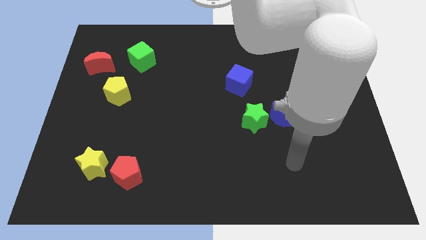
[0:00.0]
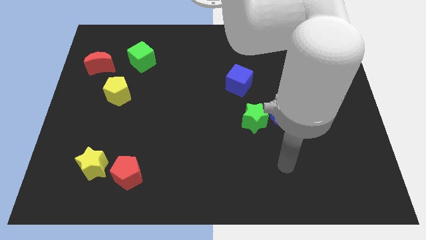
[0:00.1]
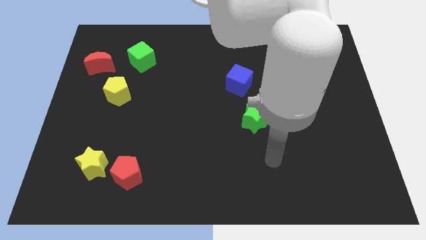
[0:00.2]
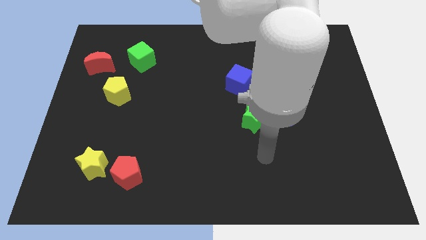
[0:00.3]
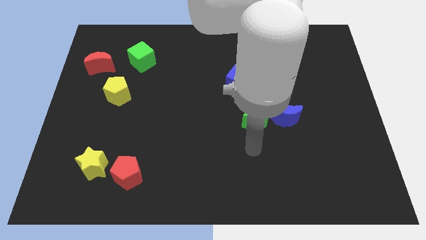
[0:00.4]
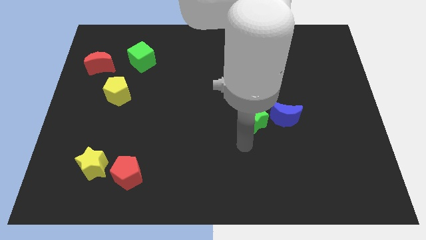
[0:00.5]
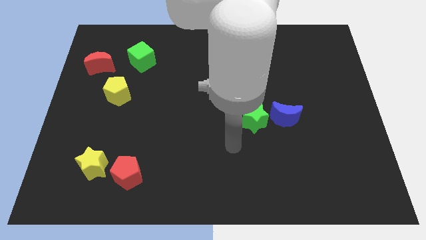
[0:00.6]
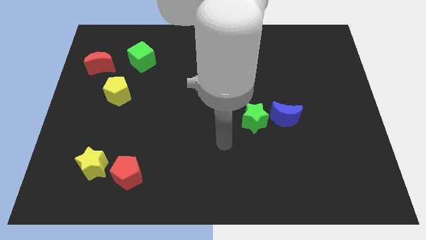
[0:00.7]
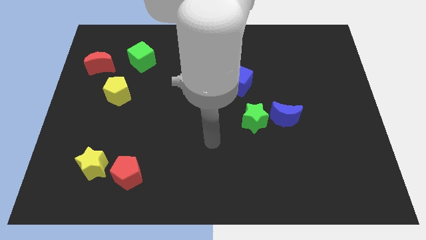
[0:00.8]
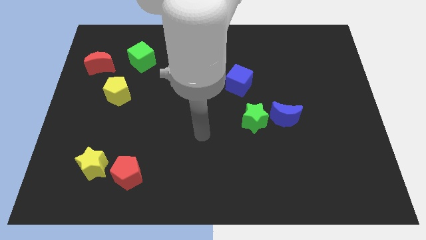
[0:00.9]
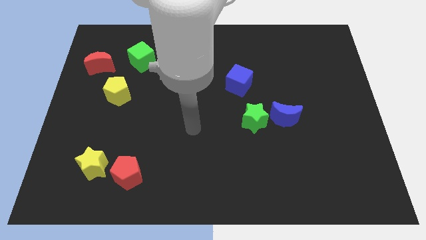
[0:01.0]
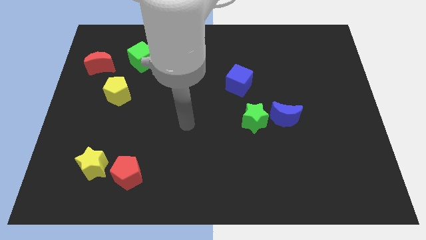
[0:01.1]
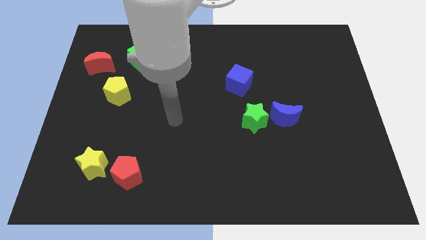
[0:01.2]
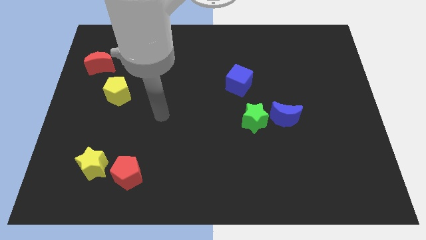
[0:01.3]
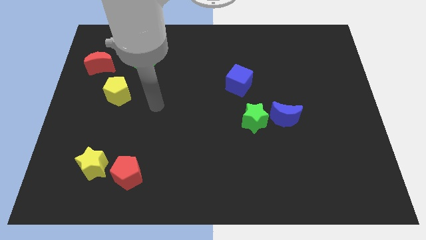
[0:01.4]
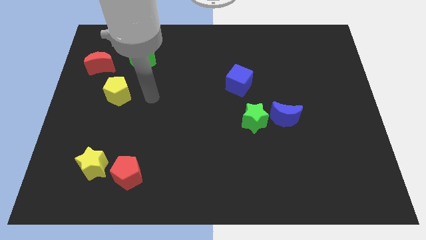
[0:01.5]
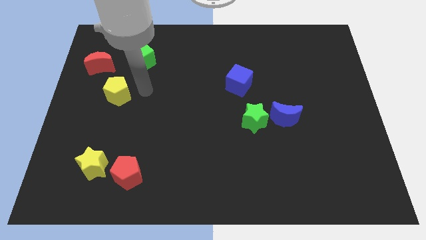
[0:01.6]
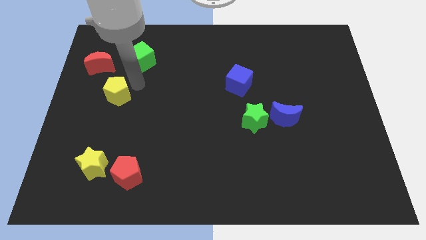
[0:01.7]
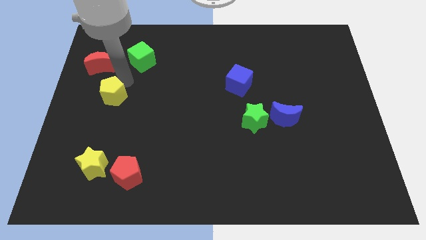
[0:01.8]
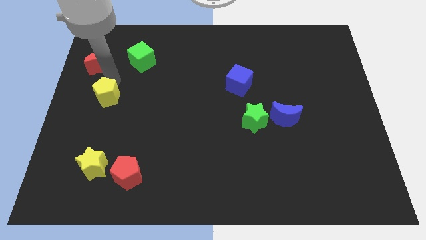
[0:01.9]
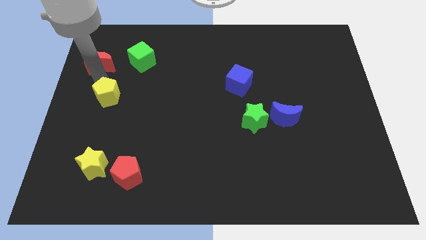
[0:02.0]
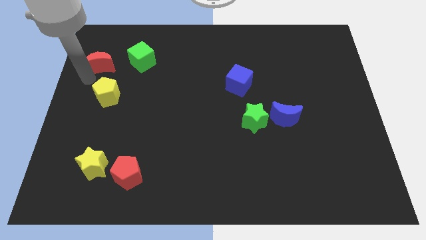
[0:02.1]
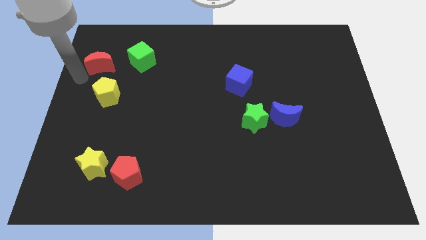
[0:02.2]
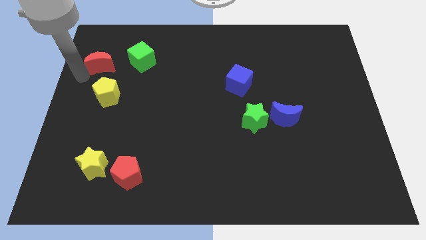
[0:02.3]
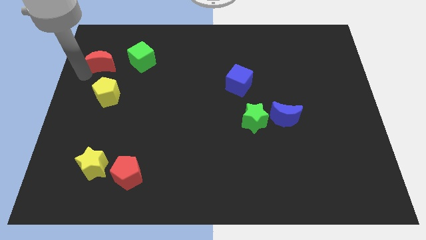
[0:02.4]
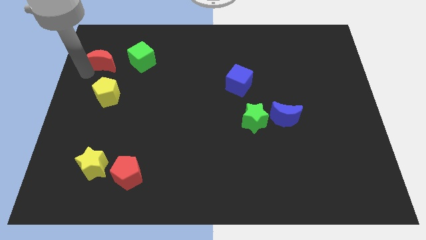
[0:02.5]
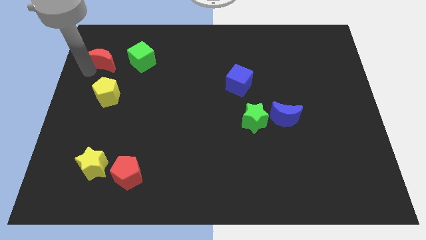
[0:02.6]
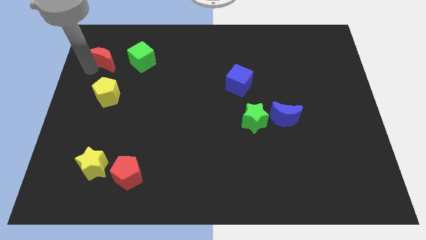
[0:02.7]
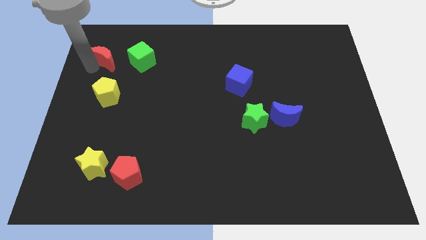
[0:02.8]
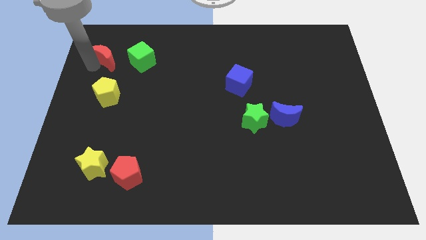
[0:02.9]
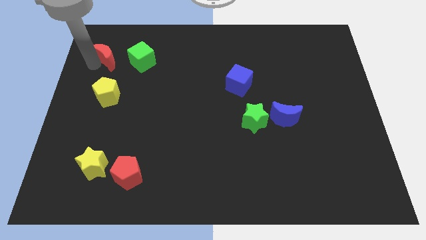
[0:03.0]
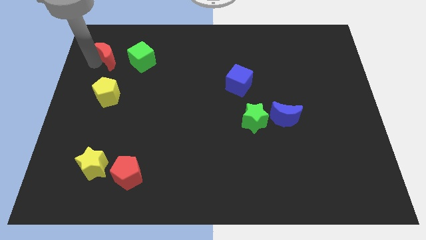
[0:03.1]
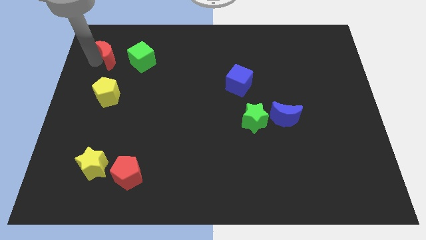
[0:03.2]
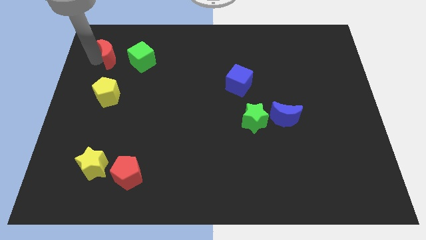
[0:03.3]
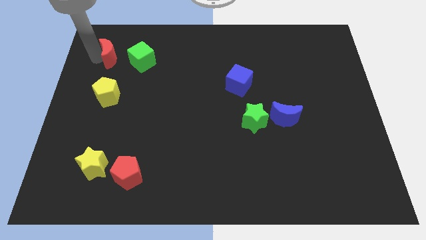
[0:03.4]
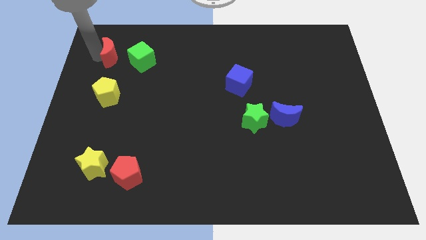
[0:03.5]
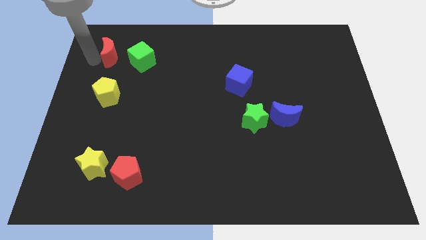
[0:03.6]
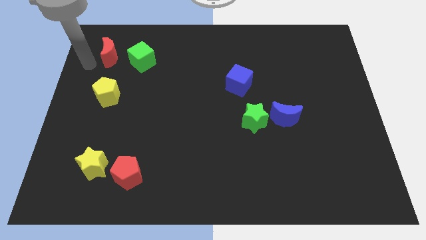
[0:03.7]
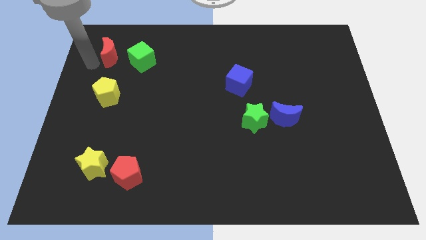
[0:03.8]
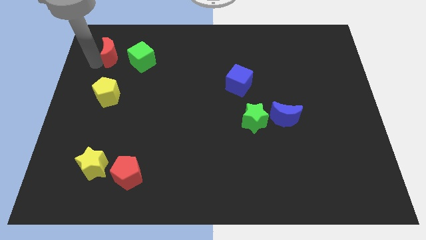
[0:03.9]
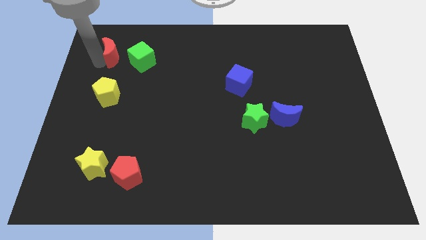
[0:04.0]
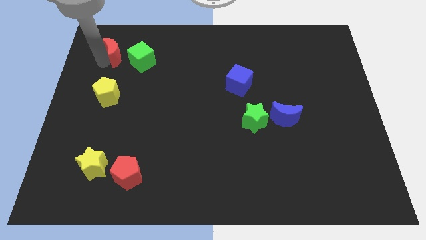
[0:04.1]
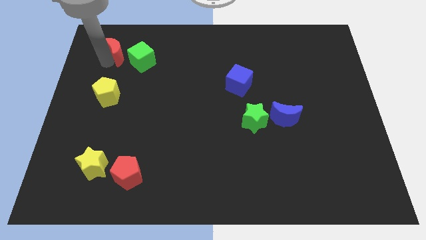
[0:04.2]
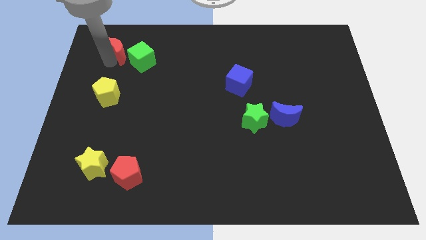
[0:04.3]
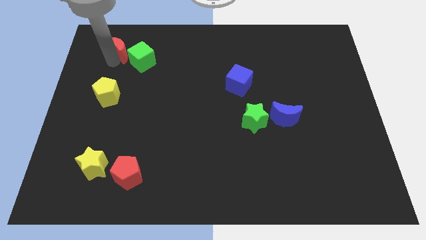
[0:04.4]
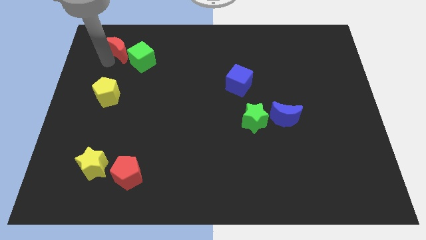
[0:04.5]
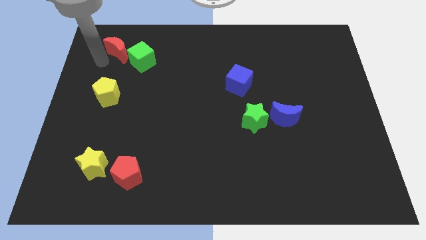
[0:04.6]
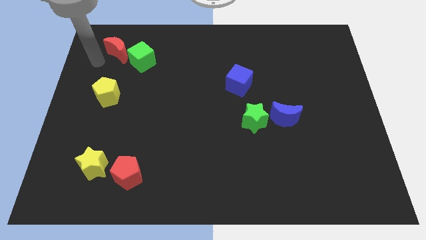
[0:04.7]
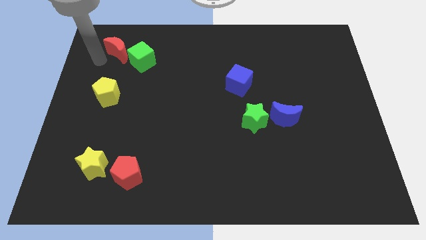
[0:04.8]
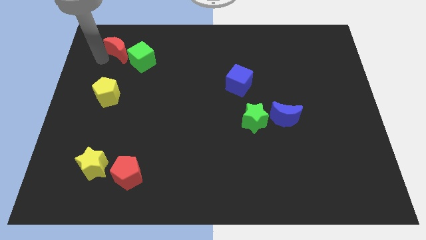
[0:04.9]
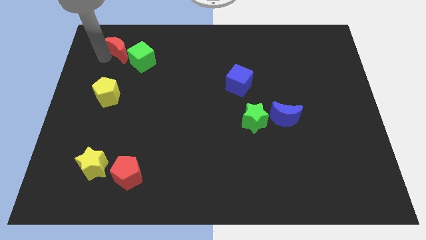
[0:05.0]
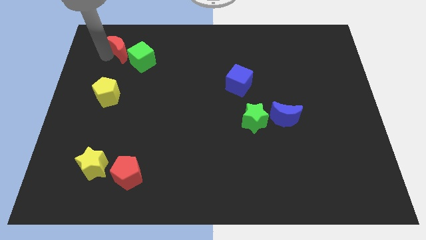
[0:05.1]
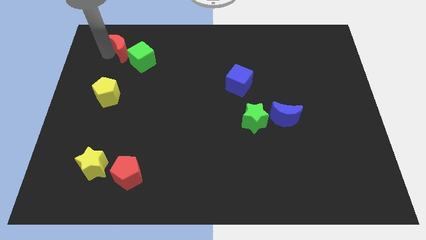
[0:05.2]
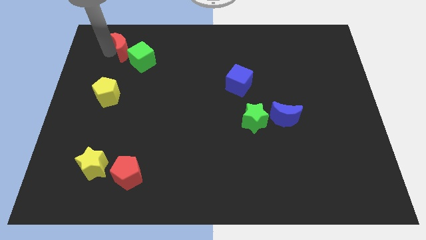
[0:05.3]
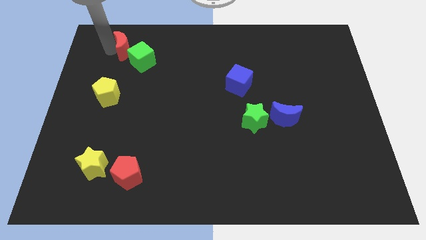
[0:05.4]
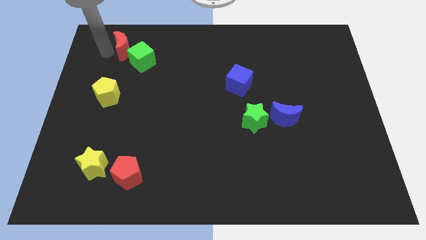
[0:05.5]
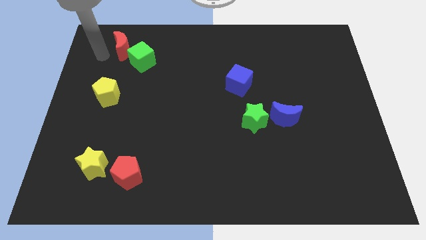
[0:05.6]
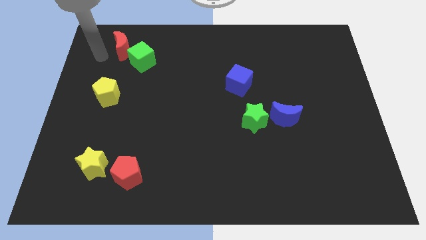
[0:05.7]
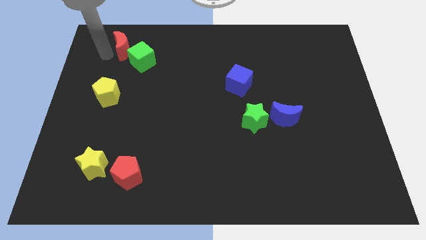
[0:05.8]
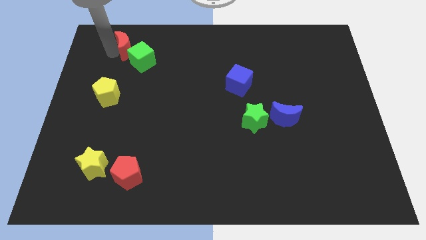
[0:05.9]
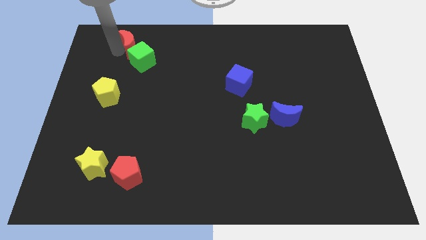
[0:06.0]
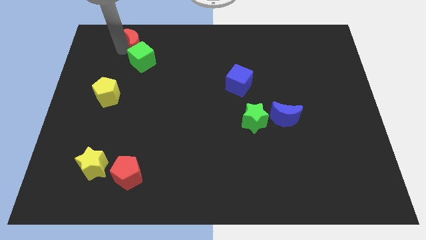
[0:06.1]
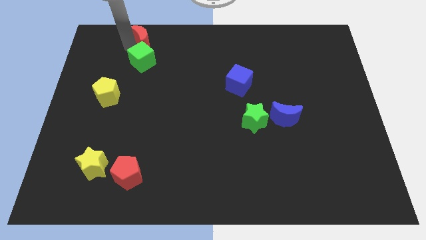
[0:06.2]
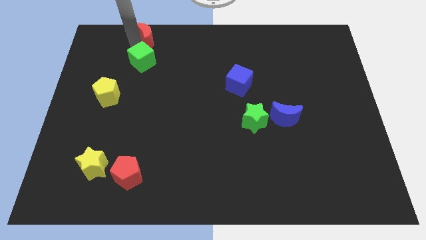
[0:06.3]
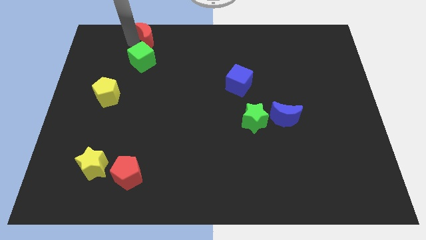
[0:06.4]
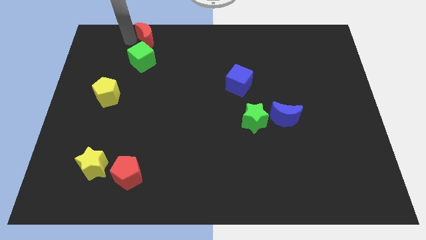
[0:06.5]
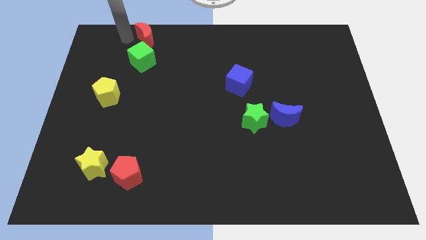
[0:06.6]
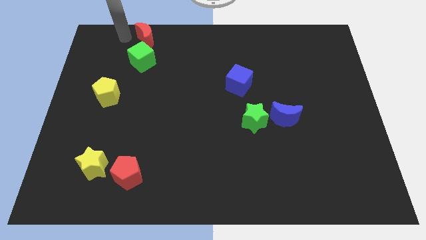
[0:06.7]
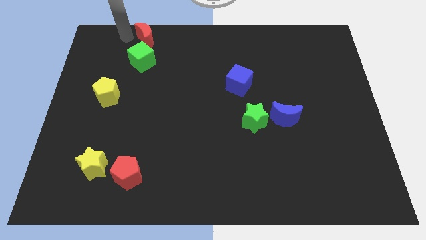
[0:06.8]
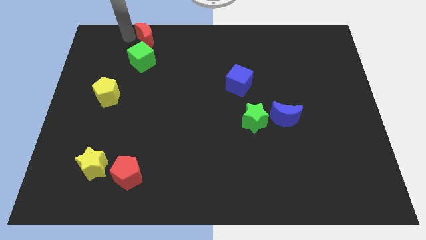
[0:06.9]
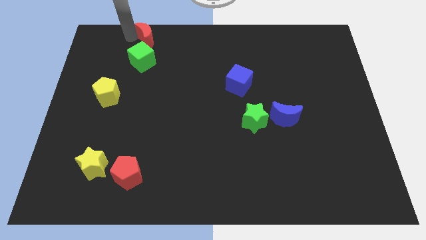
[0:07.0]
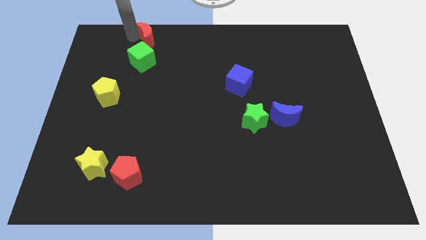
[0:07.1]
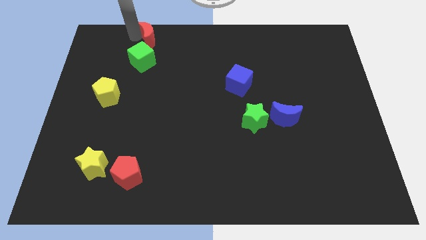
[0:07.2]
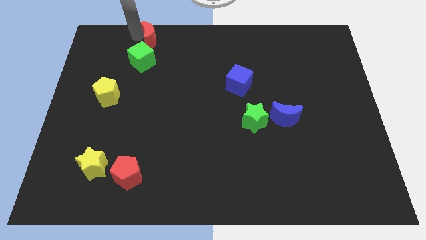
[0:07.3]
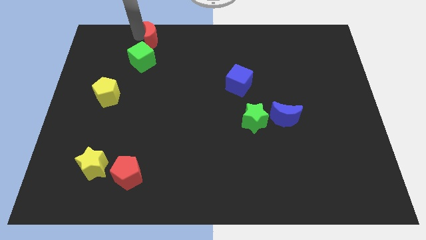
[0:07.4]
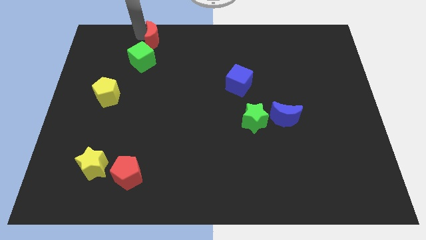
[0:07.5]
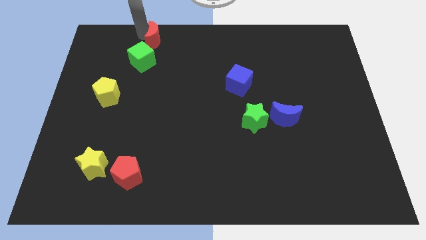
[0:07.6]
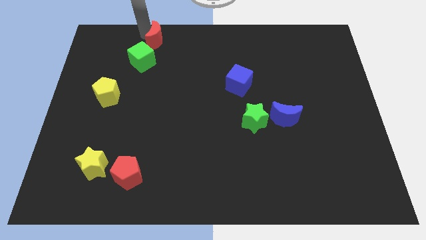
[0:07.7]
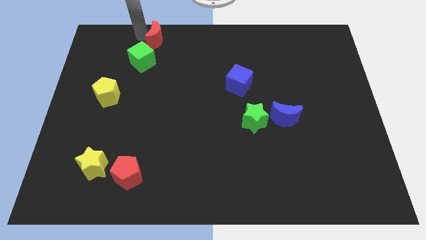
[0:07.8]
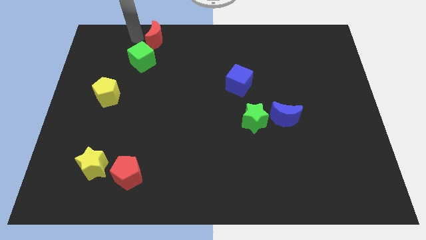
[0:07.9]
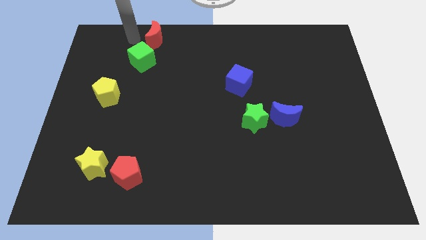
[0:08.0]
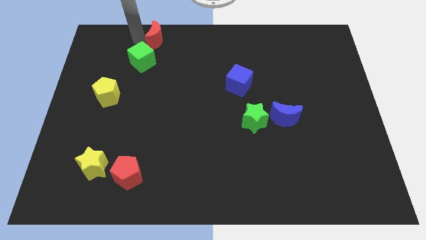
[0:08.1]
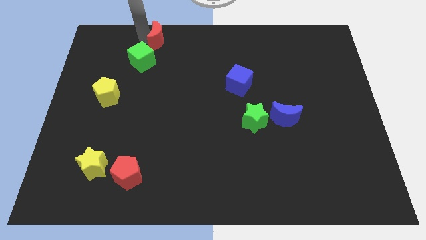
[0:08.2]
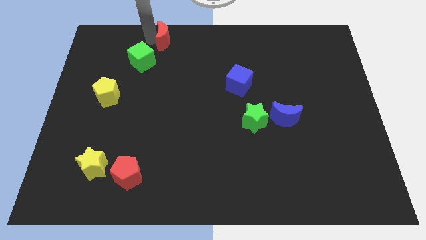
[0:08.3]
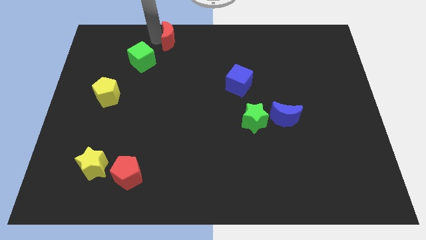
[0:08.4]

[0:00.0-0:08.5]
slide the red moon to the top side
